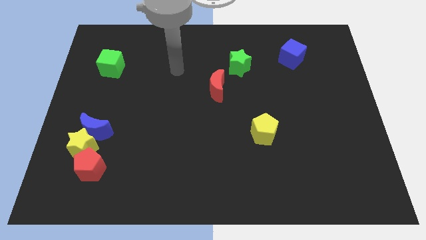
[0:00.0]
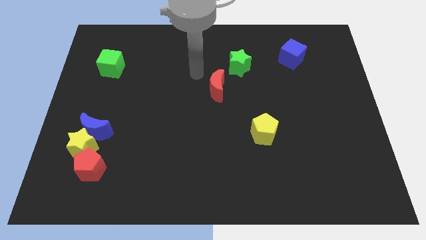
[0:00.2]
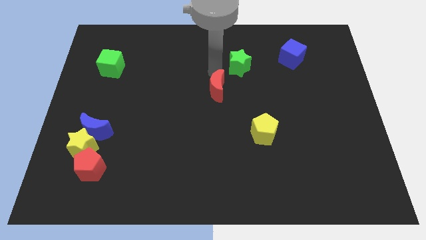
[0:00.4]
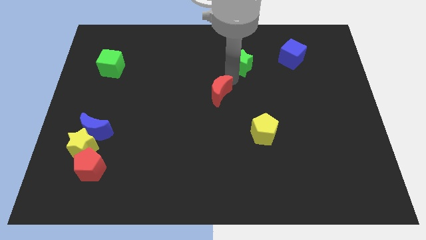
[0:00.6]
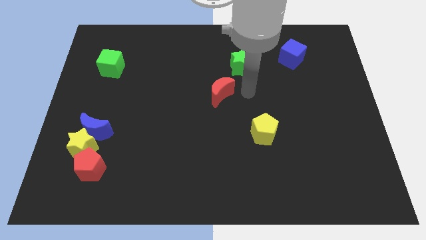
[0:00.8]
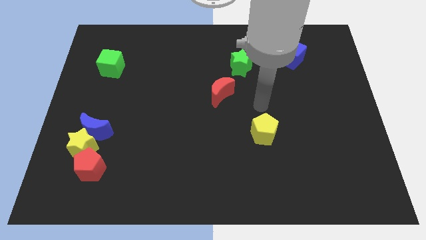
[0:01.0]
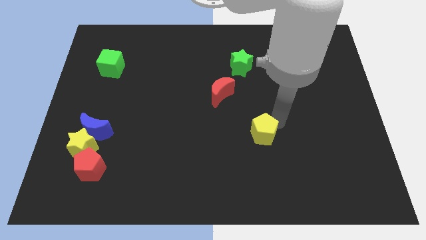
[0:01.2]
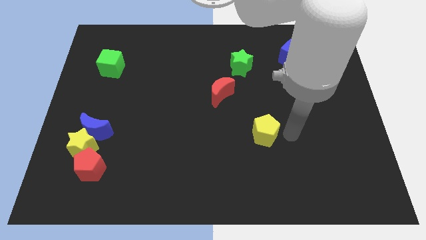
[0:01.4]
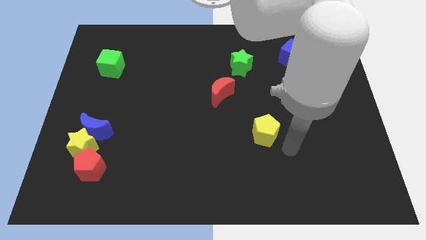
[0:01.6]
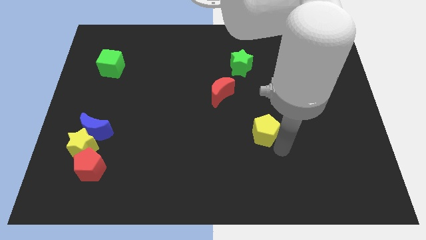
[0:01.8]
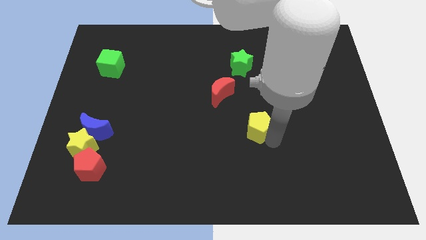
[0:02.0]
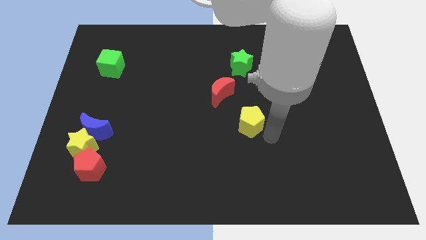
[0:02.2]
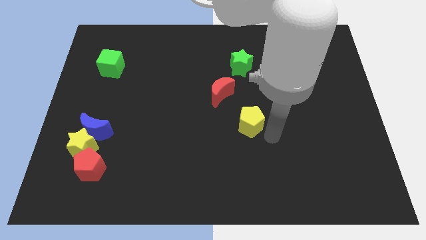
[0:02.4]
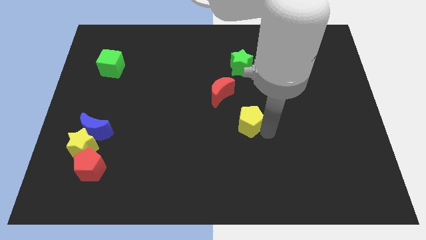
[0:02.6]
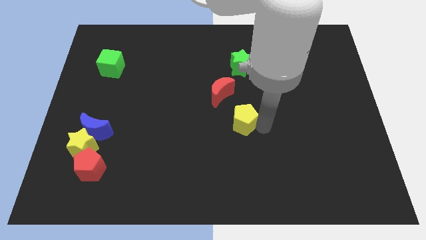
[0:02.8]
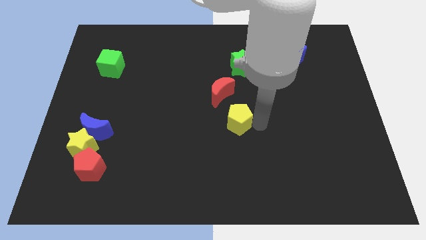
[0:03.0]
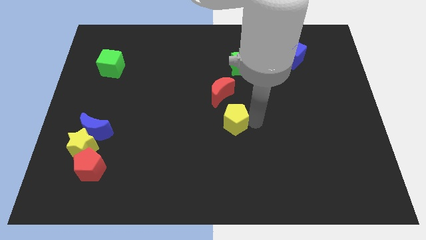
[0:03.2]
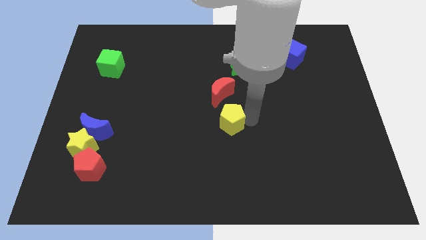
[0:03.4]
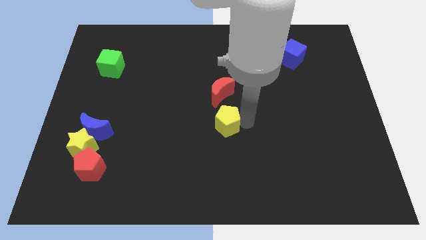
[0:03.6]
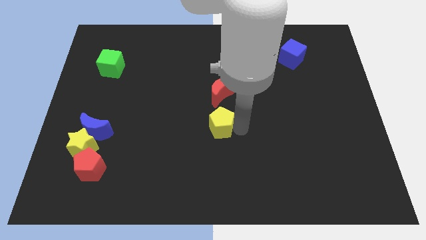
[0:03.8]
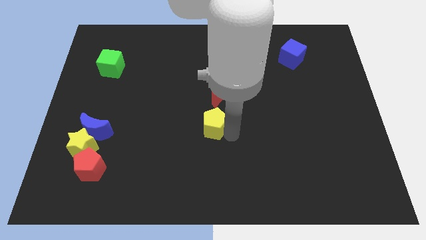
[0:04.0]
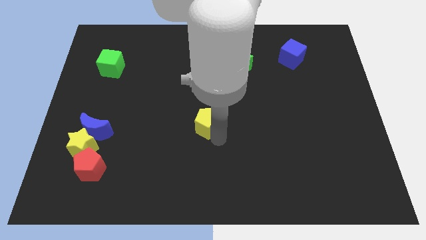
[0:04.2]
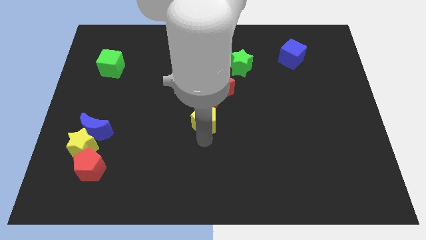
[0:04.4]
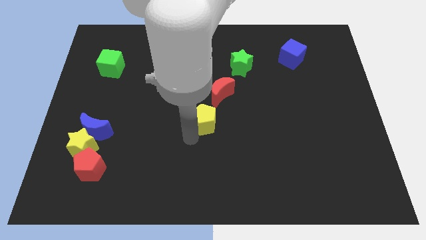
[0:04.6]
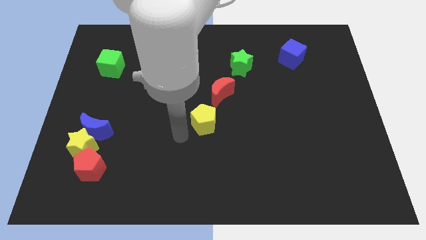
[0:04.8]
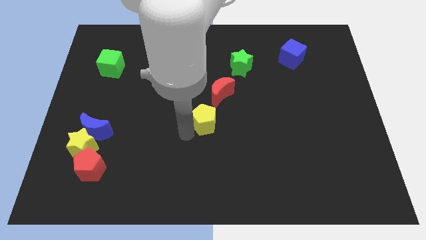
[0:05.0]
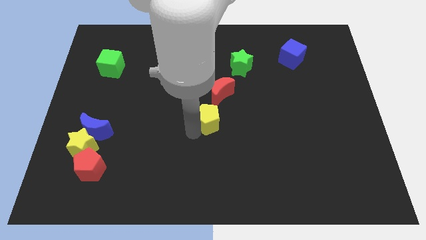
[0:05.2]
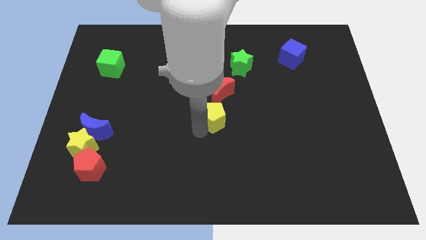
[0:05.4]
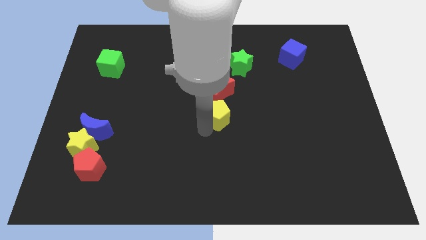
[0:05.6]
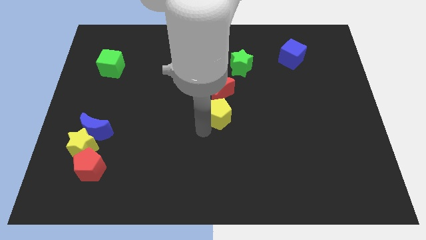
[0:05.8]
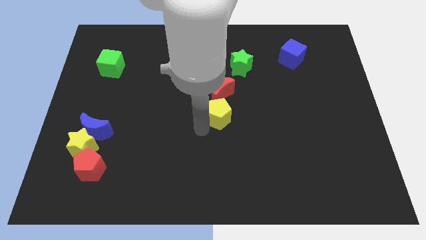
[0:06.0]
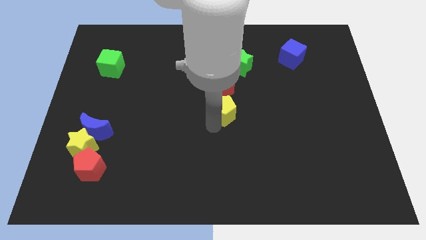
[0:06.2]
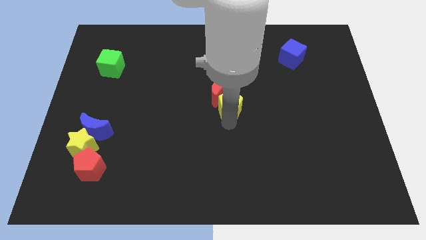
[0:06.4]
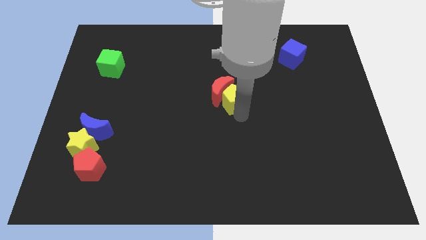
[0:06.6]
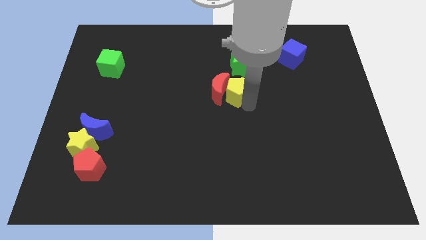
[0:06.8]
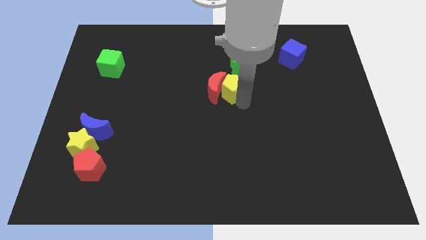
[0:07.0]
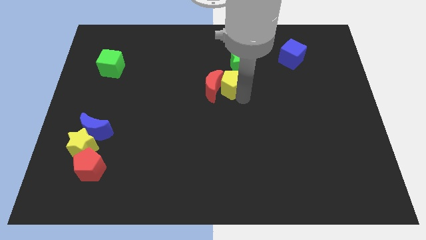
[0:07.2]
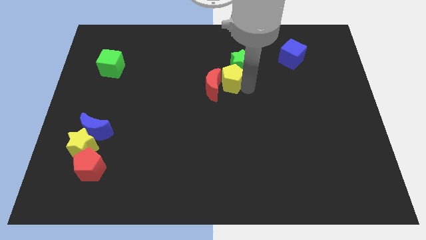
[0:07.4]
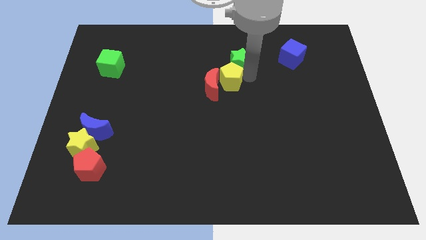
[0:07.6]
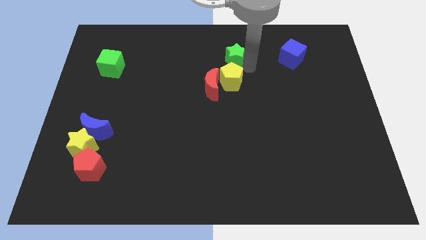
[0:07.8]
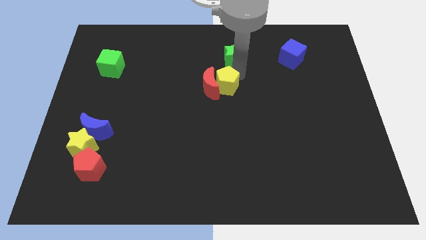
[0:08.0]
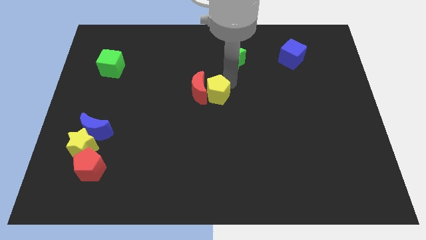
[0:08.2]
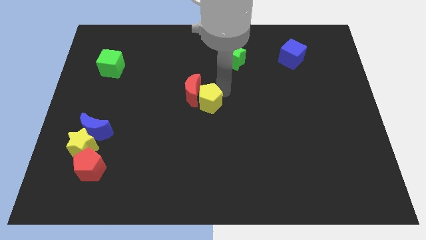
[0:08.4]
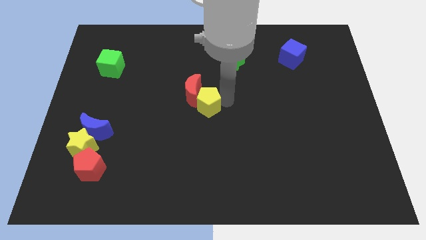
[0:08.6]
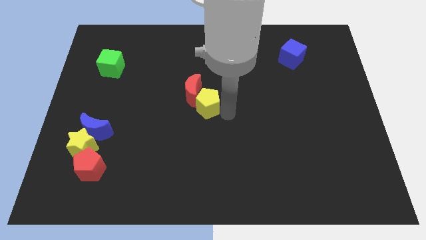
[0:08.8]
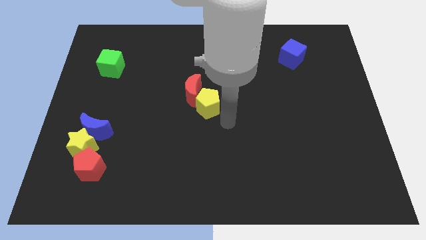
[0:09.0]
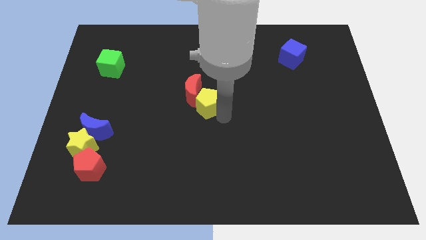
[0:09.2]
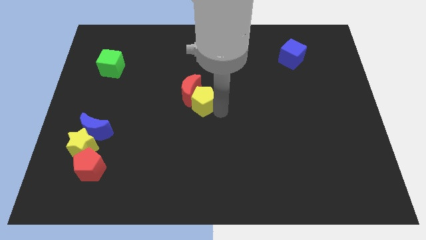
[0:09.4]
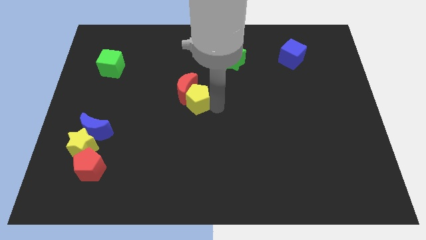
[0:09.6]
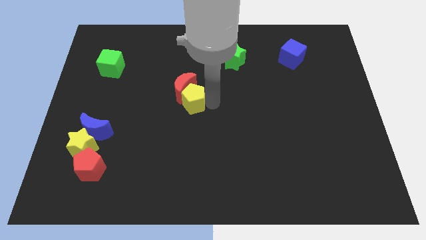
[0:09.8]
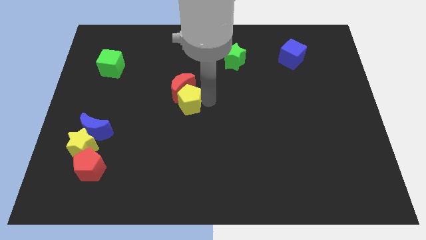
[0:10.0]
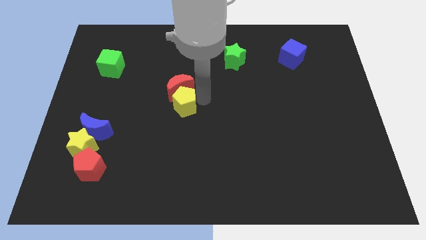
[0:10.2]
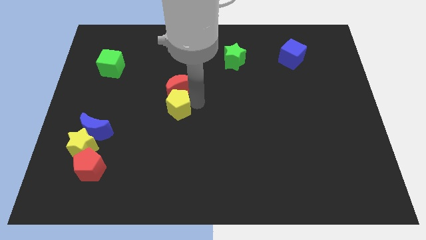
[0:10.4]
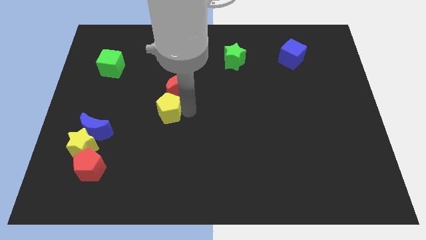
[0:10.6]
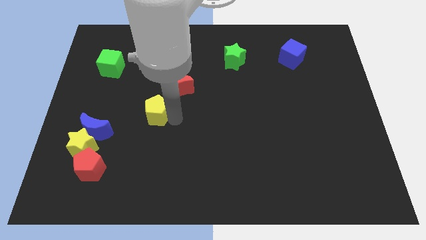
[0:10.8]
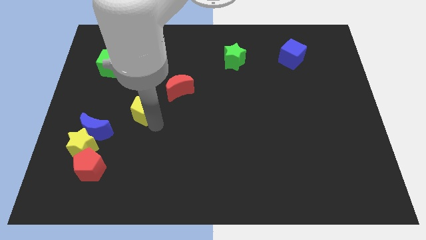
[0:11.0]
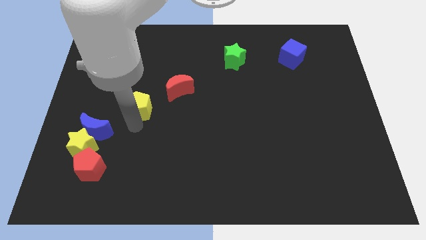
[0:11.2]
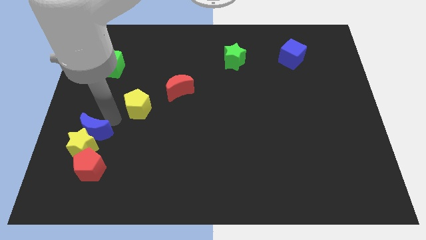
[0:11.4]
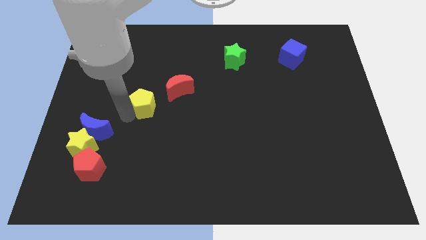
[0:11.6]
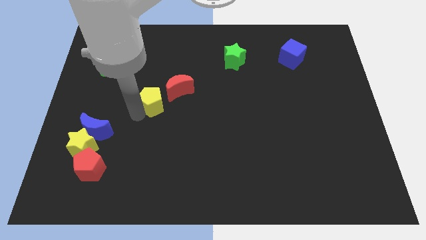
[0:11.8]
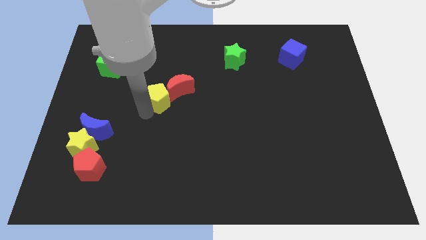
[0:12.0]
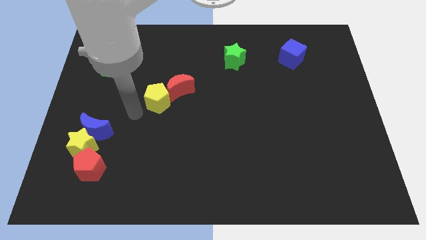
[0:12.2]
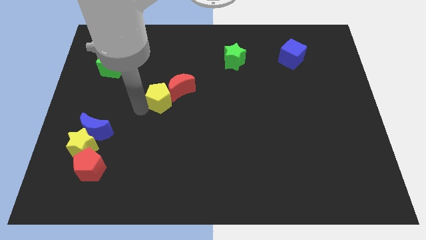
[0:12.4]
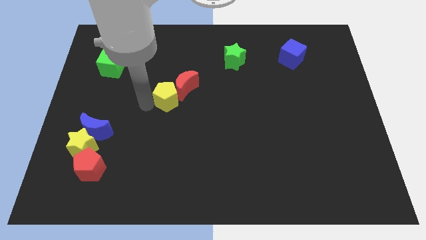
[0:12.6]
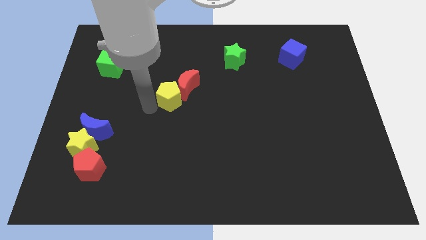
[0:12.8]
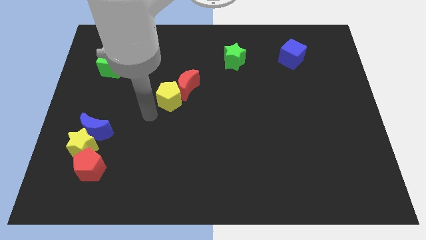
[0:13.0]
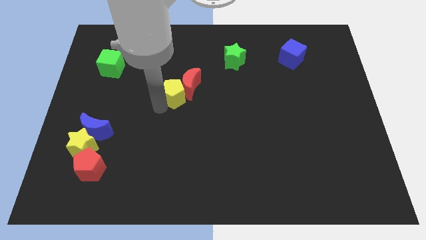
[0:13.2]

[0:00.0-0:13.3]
slide the yellow pentagon up and left diagonally

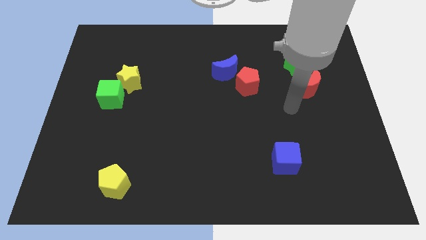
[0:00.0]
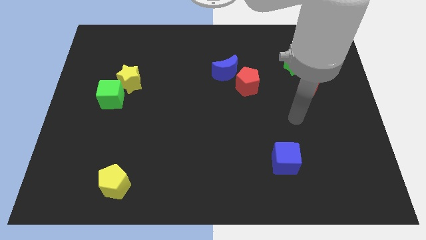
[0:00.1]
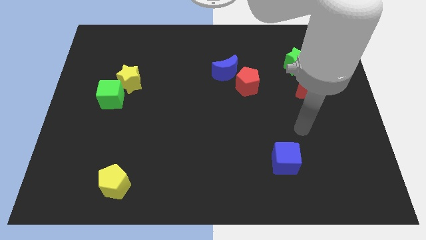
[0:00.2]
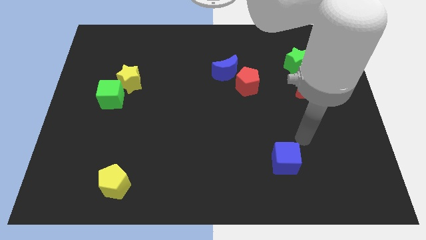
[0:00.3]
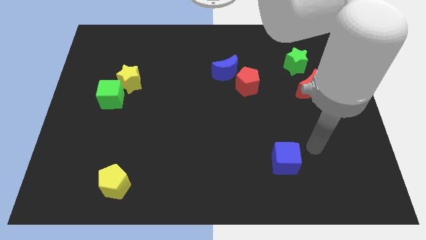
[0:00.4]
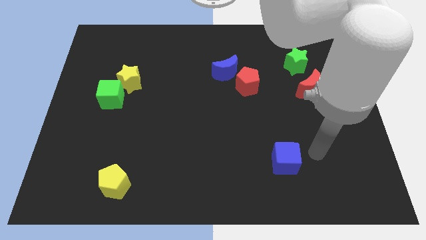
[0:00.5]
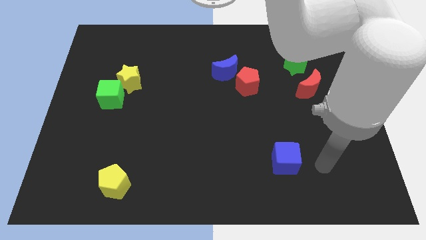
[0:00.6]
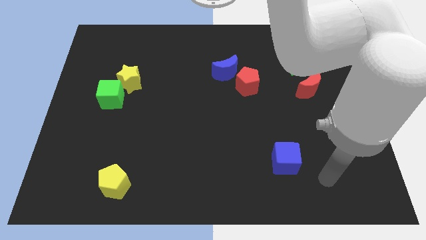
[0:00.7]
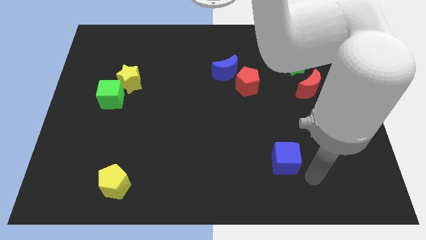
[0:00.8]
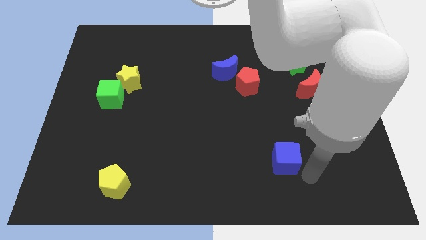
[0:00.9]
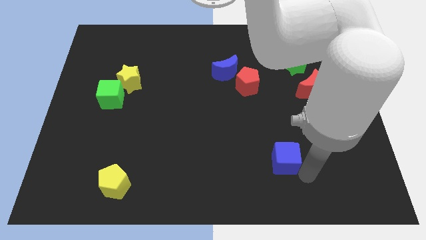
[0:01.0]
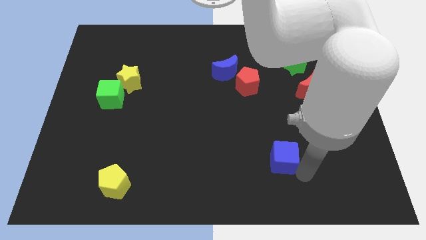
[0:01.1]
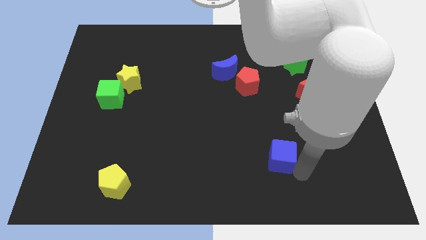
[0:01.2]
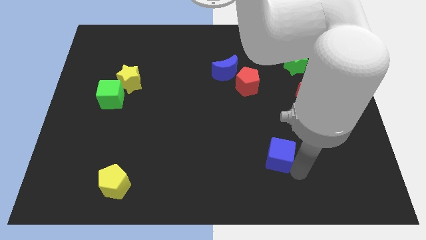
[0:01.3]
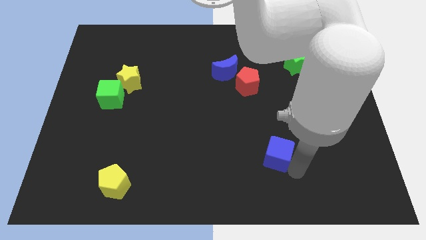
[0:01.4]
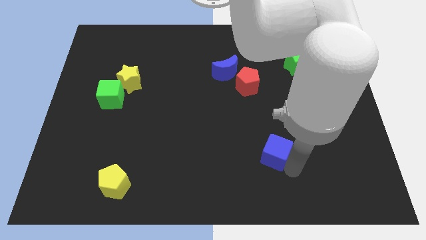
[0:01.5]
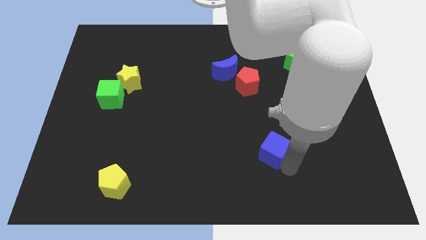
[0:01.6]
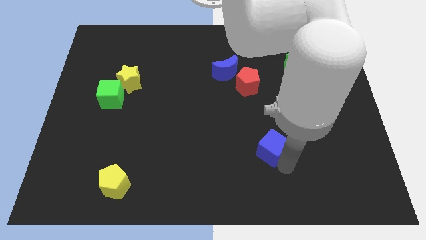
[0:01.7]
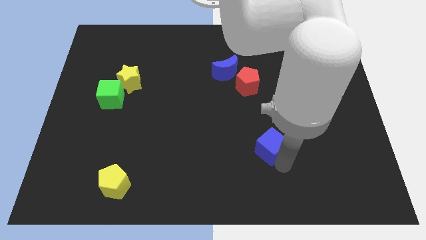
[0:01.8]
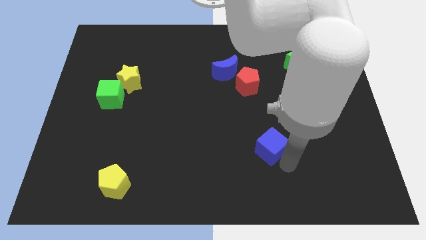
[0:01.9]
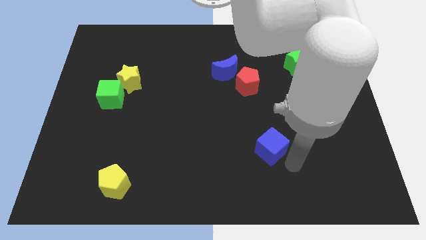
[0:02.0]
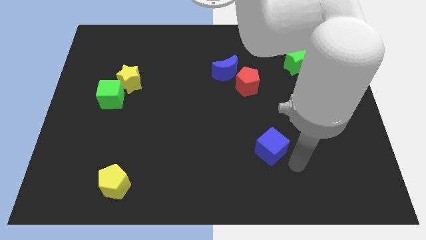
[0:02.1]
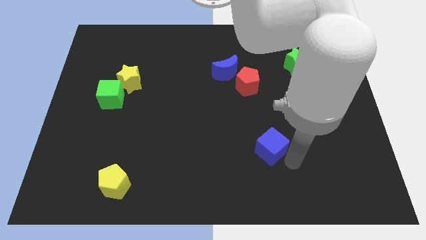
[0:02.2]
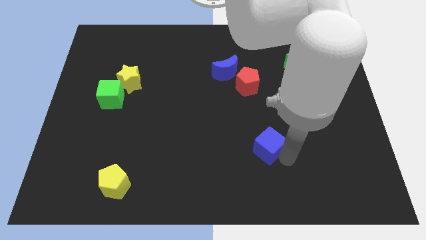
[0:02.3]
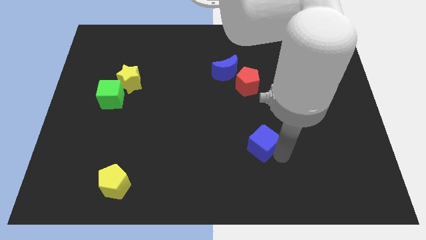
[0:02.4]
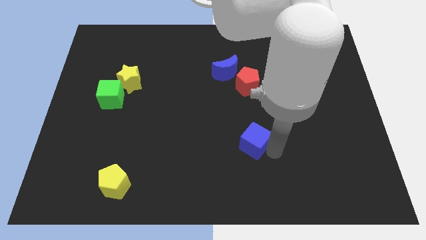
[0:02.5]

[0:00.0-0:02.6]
slightly push the blue cube up and to the left
